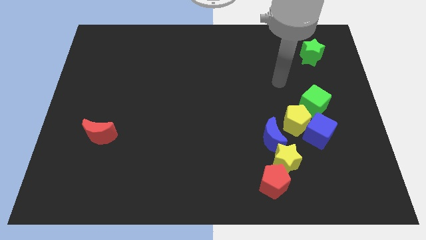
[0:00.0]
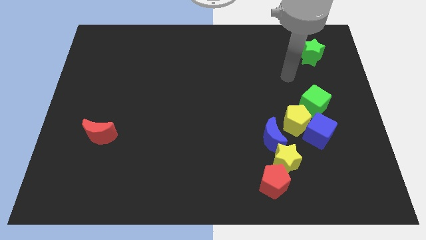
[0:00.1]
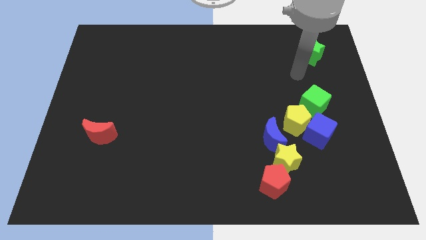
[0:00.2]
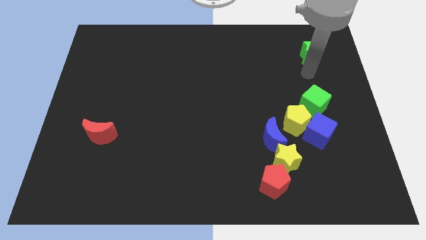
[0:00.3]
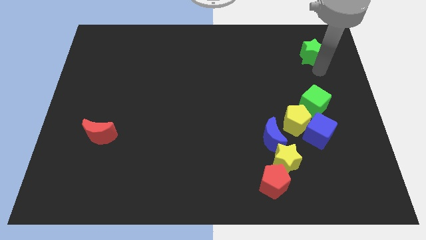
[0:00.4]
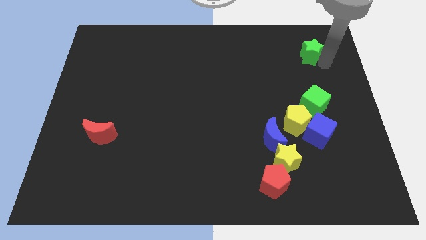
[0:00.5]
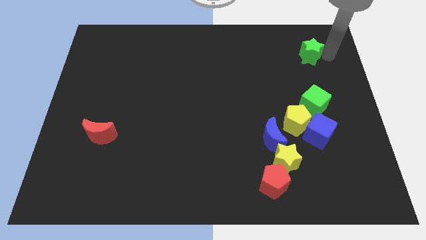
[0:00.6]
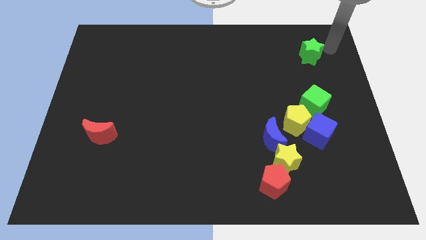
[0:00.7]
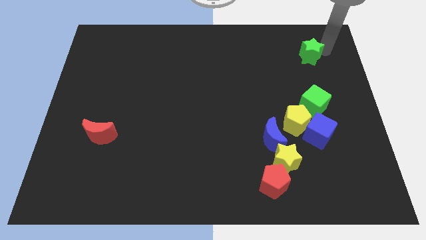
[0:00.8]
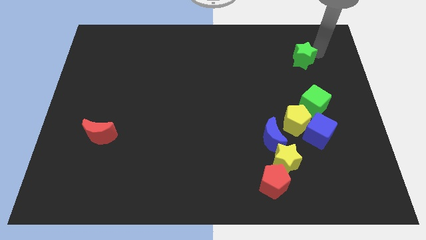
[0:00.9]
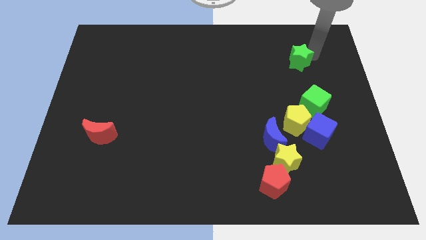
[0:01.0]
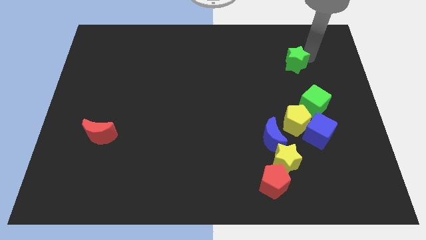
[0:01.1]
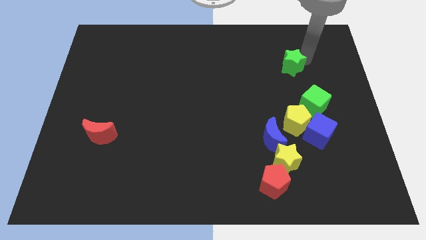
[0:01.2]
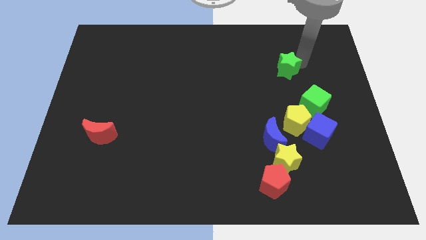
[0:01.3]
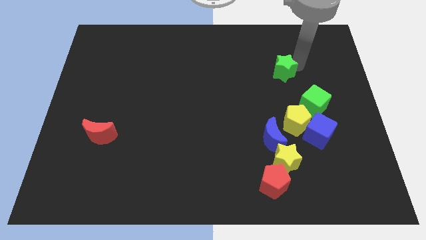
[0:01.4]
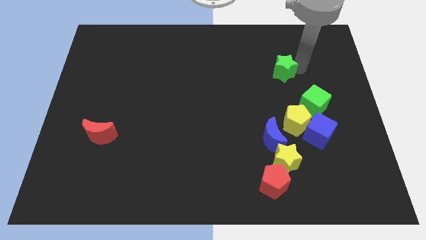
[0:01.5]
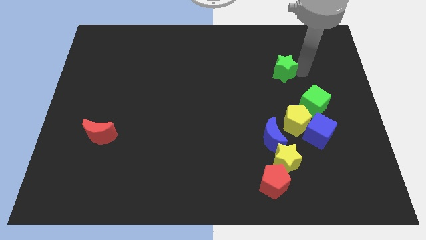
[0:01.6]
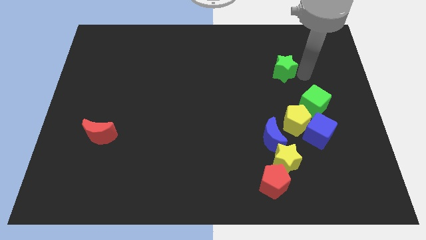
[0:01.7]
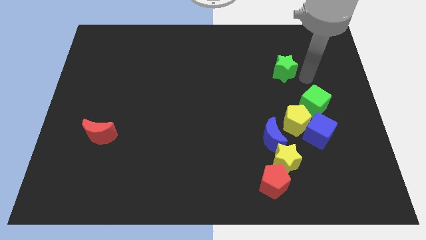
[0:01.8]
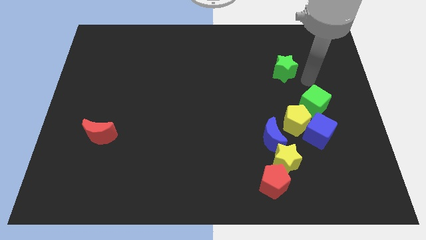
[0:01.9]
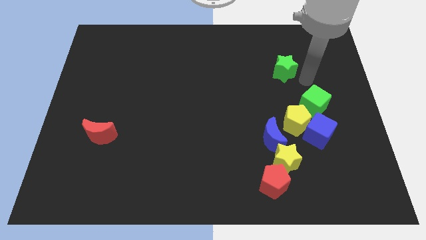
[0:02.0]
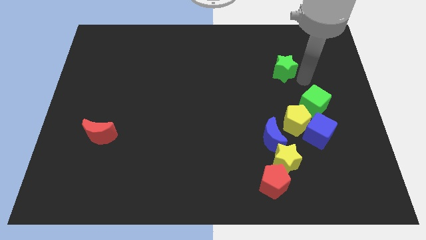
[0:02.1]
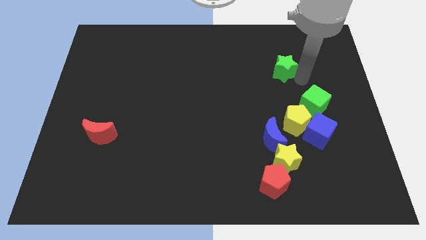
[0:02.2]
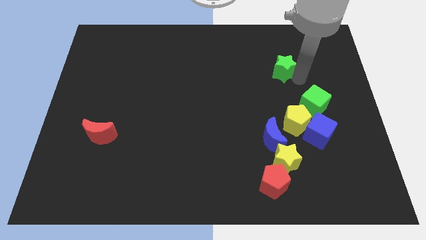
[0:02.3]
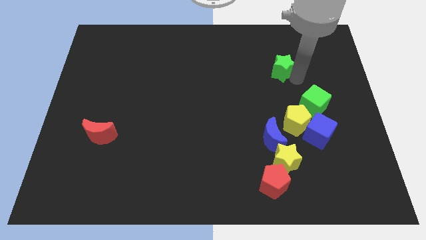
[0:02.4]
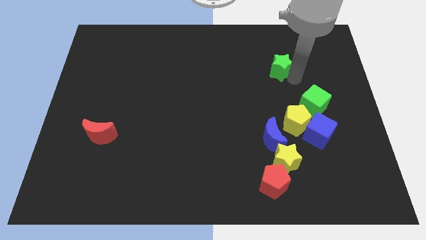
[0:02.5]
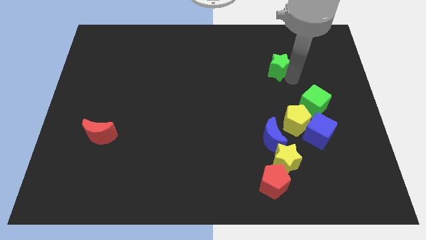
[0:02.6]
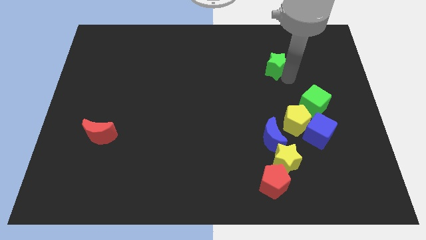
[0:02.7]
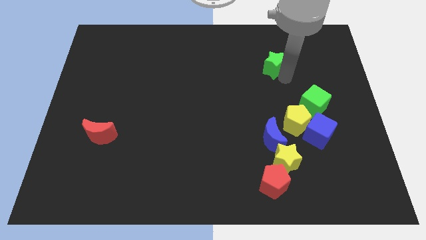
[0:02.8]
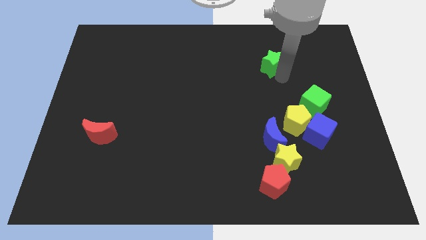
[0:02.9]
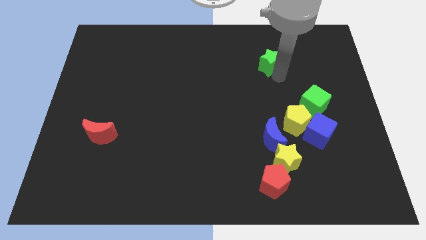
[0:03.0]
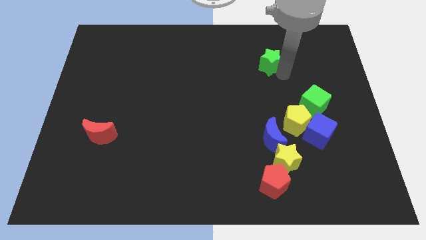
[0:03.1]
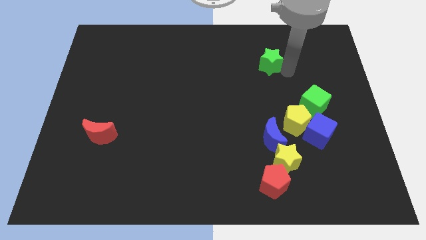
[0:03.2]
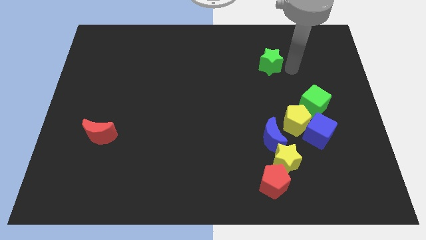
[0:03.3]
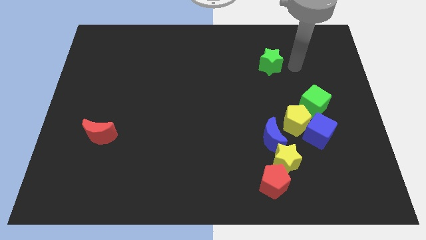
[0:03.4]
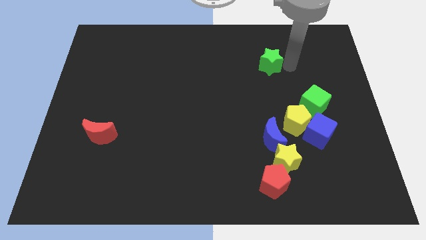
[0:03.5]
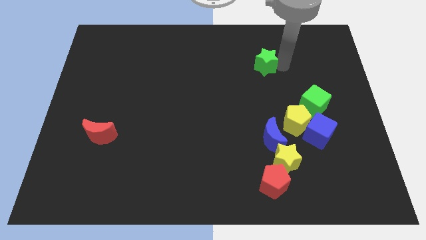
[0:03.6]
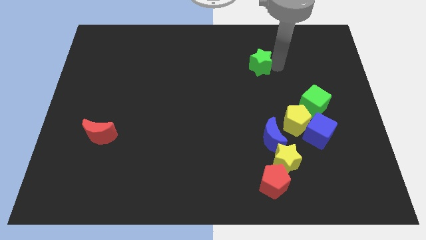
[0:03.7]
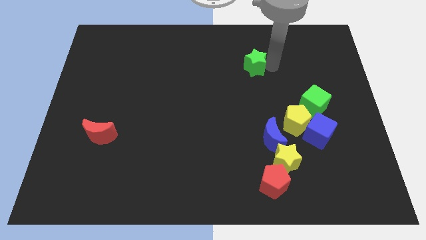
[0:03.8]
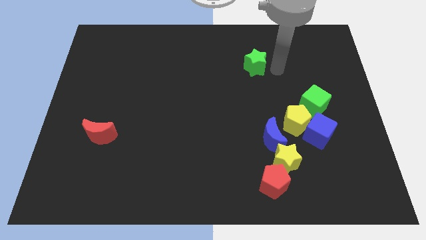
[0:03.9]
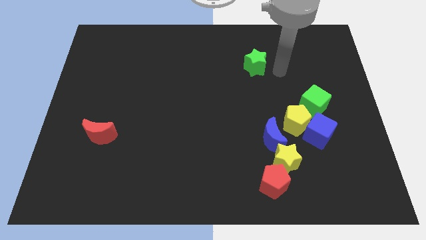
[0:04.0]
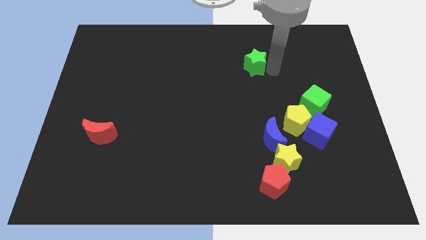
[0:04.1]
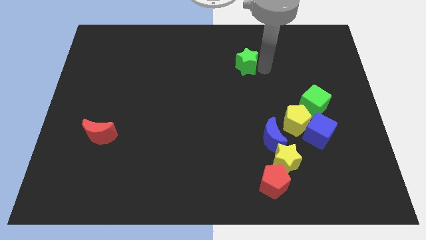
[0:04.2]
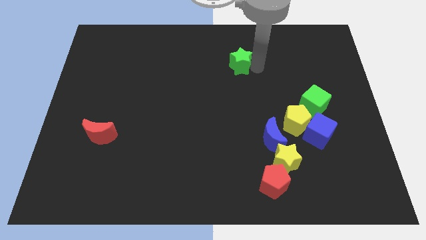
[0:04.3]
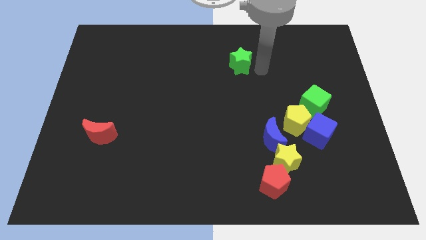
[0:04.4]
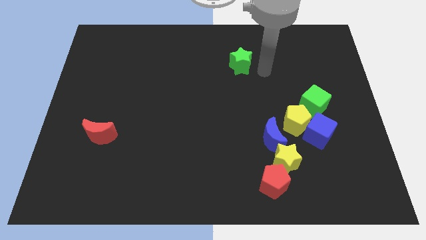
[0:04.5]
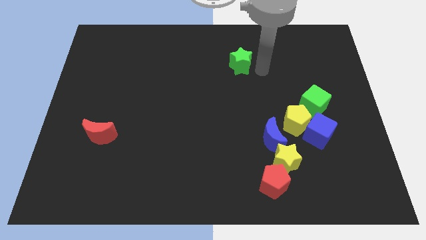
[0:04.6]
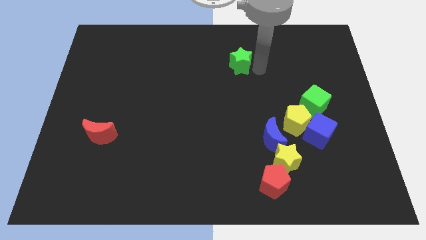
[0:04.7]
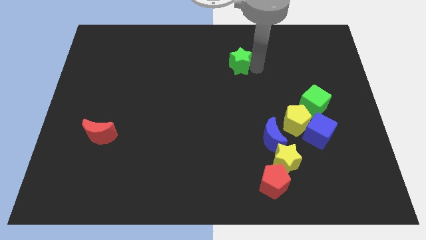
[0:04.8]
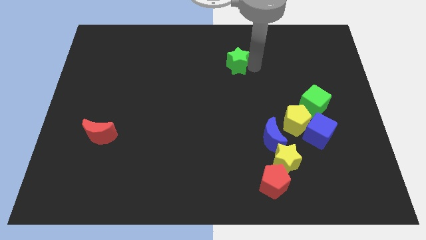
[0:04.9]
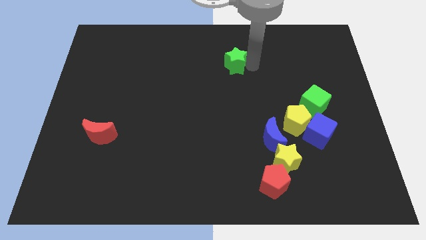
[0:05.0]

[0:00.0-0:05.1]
push the green star to the left

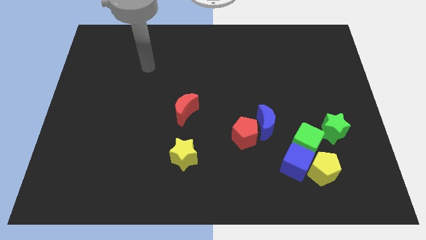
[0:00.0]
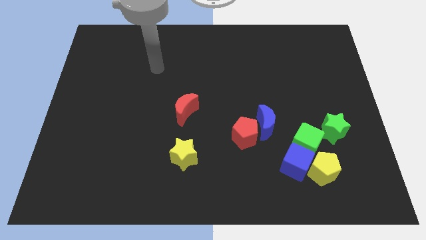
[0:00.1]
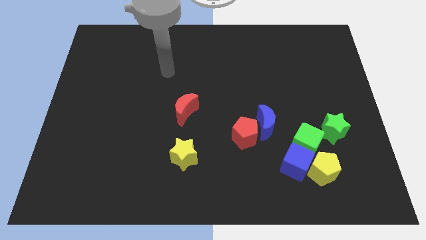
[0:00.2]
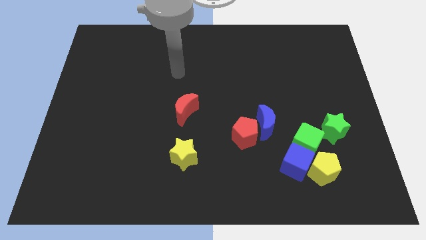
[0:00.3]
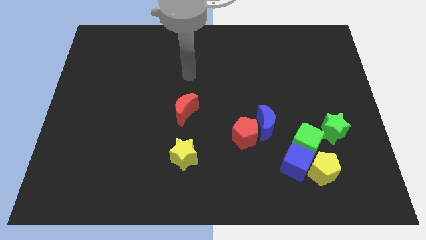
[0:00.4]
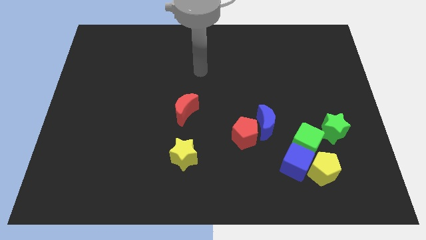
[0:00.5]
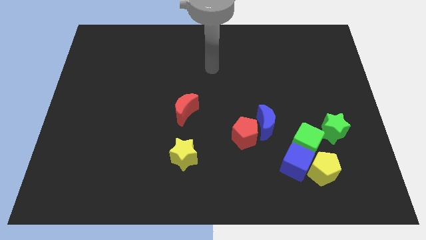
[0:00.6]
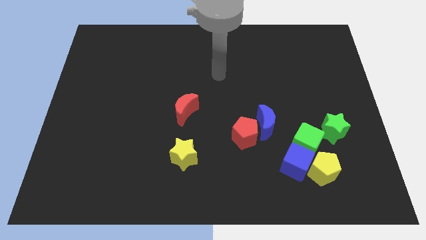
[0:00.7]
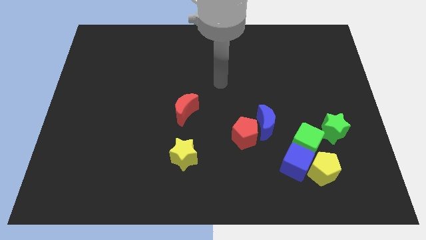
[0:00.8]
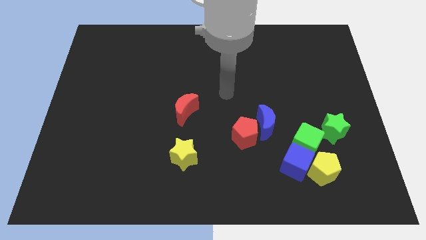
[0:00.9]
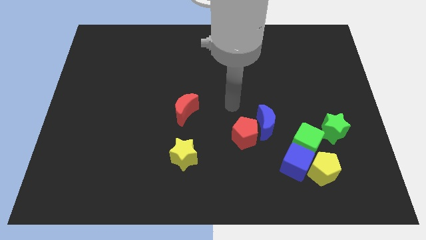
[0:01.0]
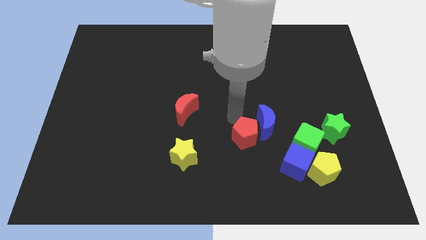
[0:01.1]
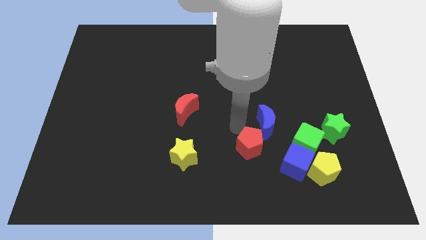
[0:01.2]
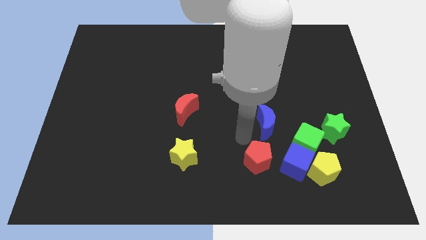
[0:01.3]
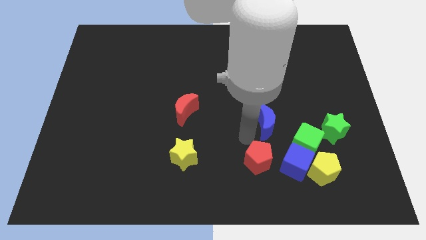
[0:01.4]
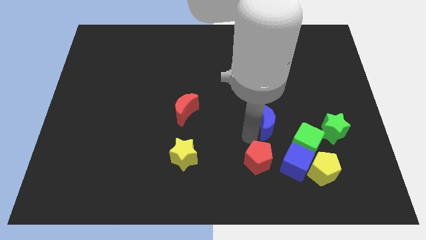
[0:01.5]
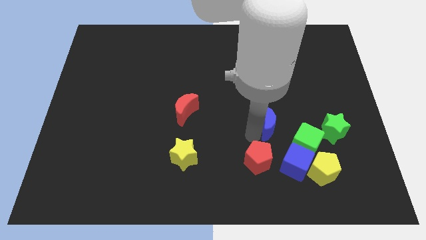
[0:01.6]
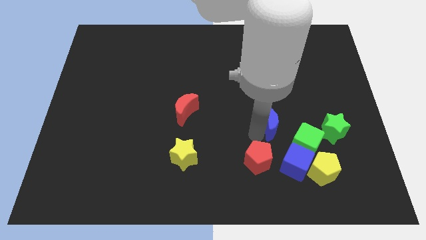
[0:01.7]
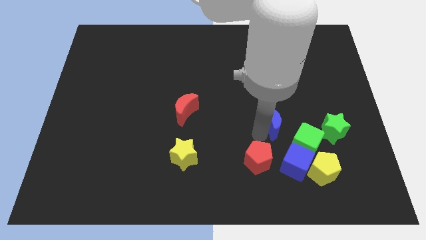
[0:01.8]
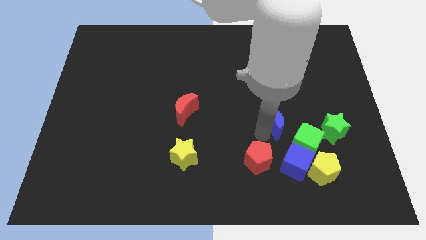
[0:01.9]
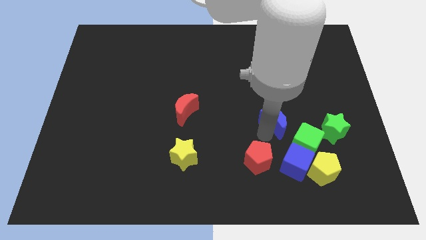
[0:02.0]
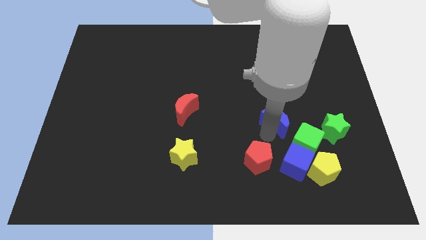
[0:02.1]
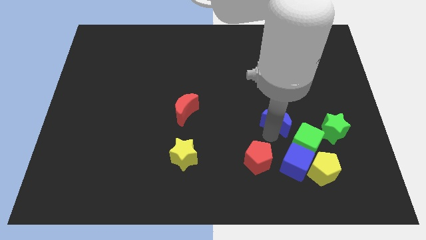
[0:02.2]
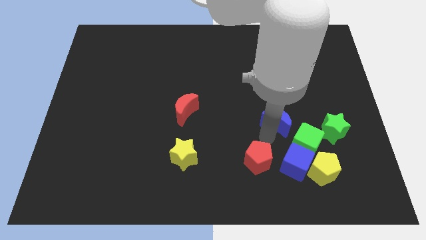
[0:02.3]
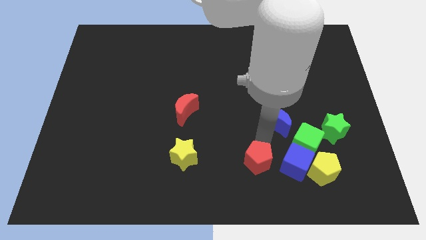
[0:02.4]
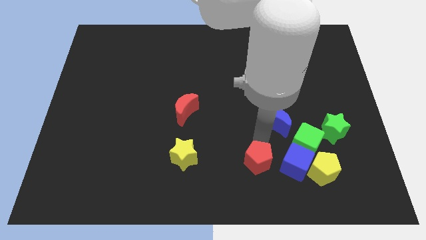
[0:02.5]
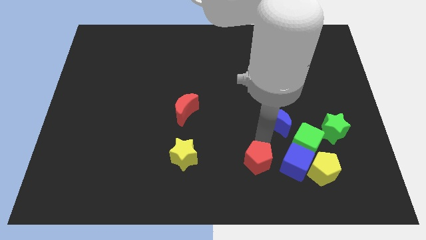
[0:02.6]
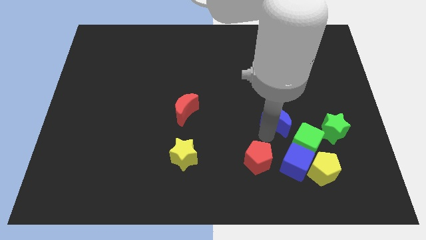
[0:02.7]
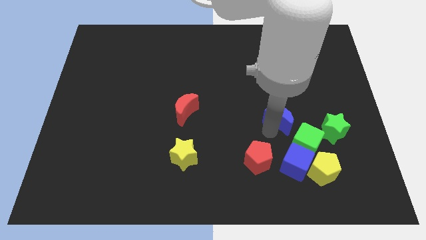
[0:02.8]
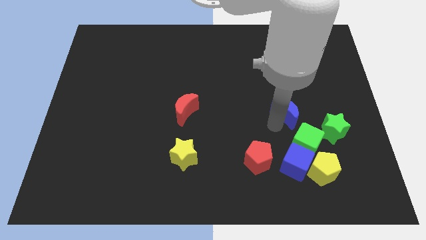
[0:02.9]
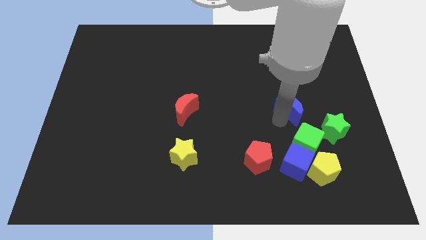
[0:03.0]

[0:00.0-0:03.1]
slide the blue moon somewhat up and then to the right
